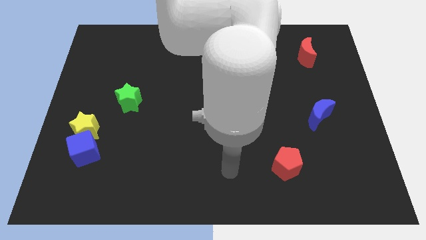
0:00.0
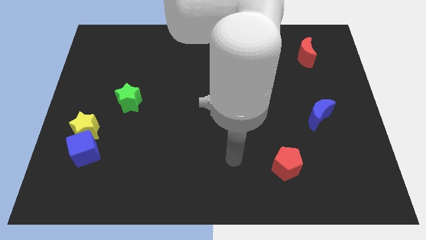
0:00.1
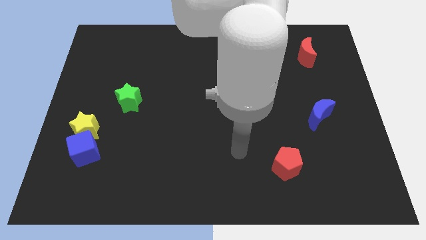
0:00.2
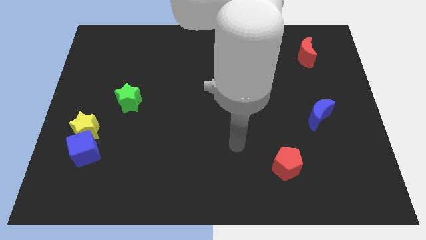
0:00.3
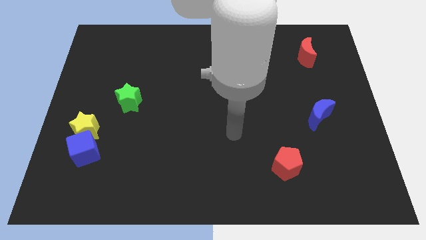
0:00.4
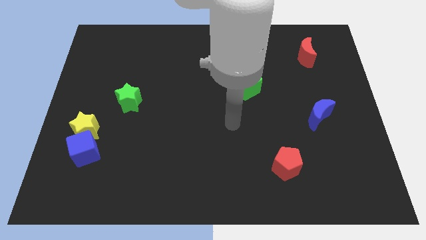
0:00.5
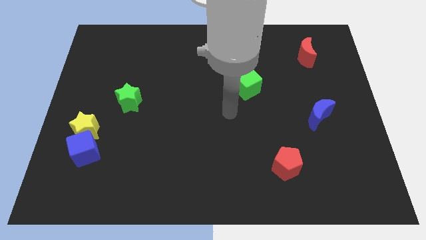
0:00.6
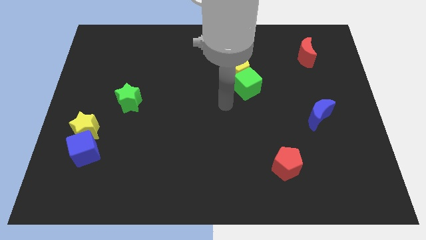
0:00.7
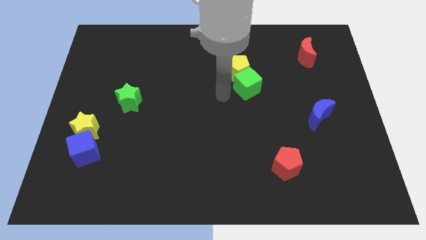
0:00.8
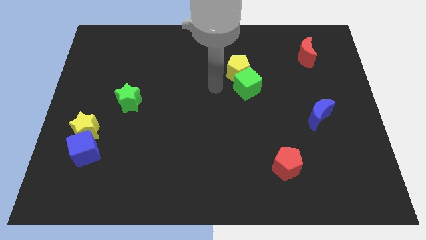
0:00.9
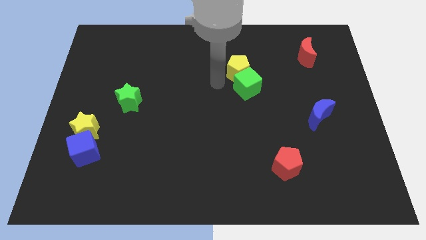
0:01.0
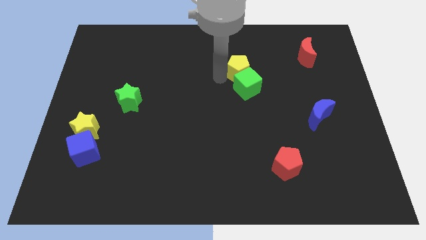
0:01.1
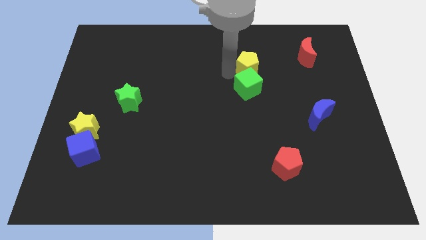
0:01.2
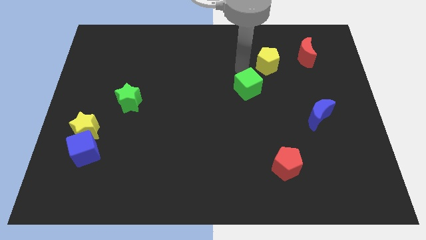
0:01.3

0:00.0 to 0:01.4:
separate the green cube from the yellow pentagon

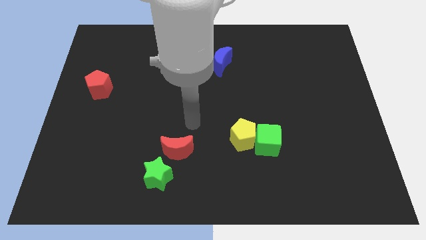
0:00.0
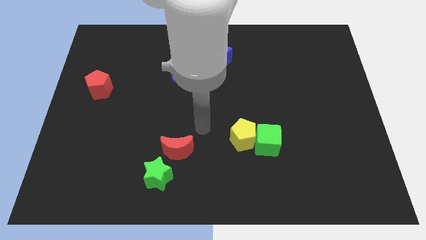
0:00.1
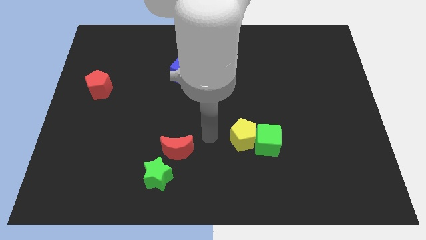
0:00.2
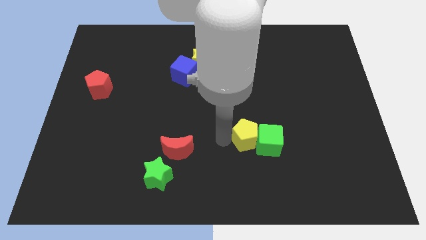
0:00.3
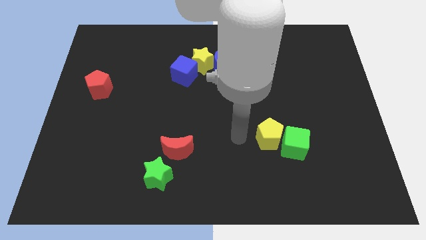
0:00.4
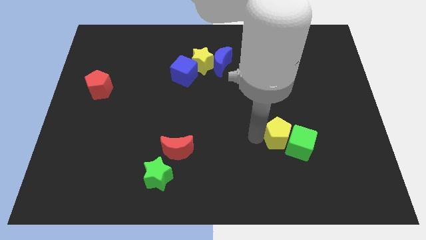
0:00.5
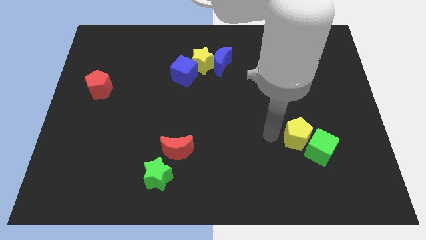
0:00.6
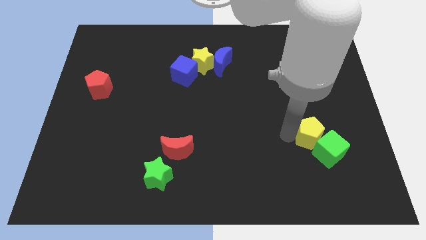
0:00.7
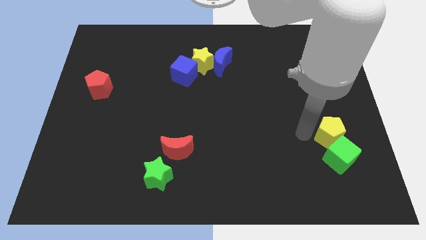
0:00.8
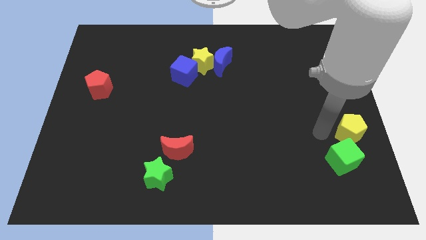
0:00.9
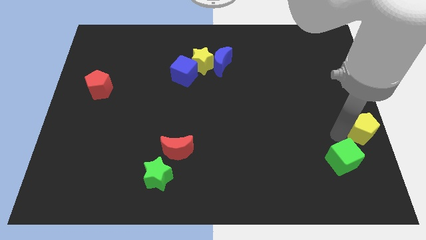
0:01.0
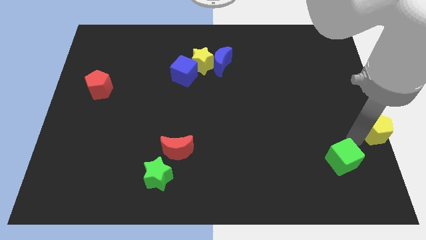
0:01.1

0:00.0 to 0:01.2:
pull the green cube apart from the yellow pentagon

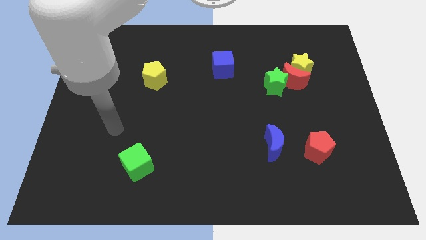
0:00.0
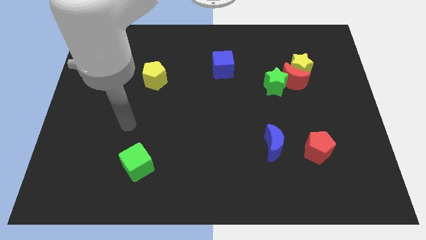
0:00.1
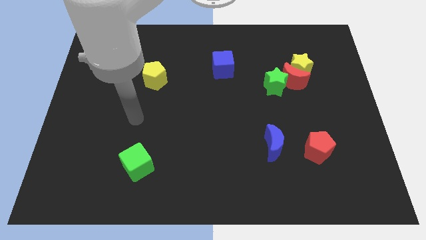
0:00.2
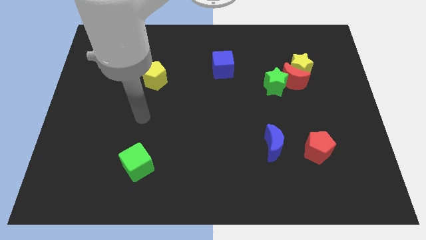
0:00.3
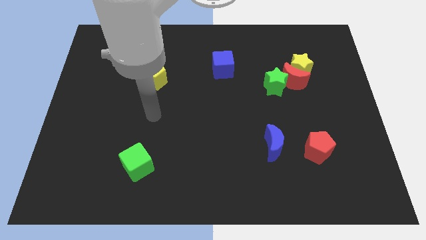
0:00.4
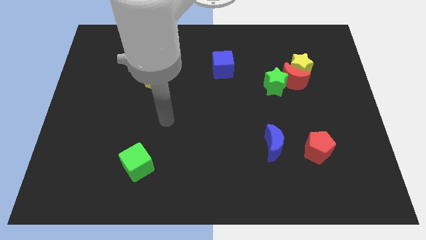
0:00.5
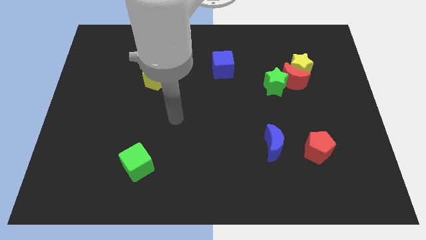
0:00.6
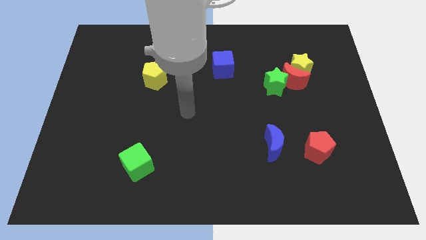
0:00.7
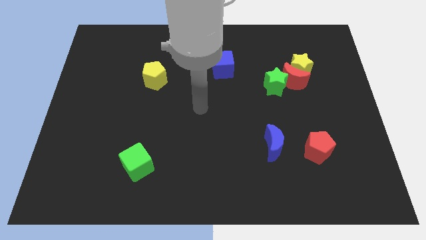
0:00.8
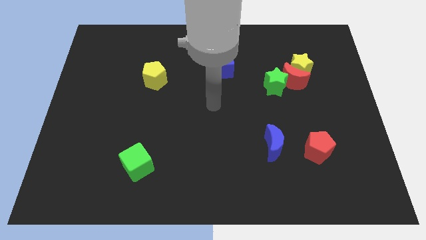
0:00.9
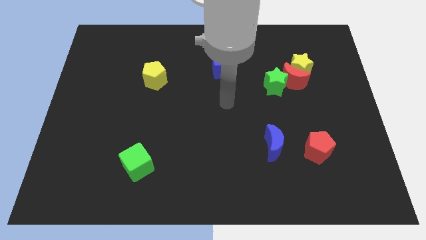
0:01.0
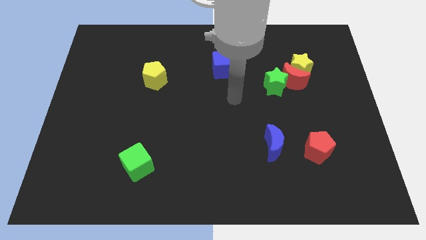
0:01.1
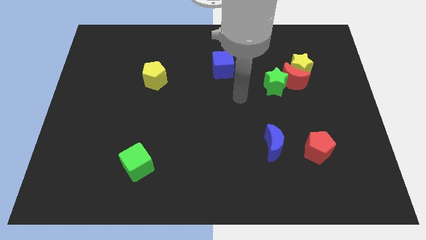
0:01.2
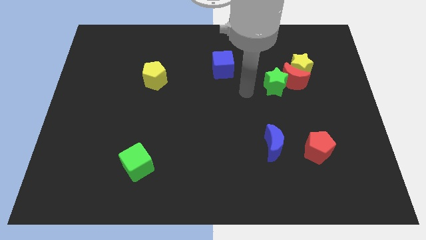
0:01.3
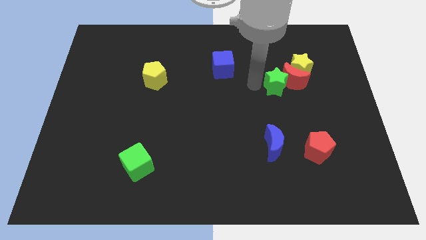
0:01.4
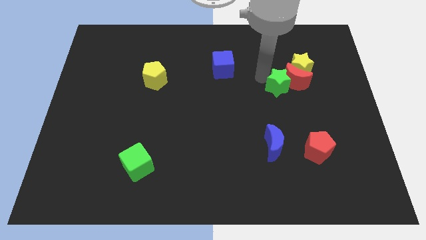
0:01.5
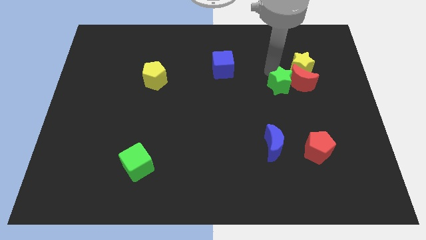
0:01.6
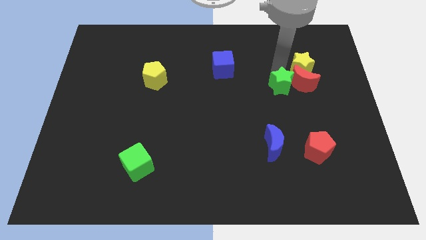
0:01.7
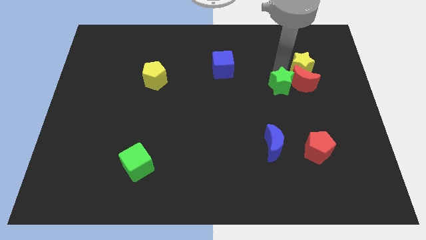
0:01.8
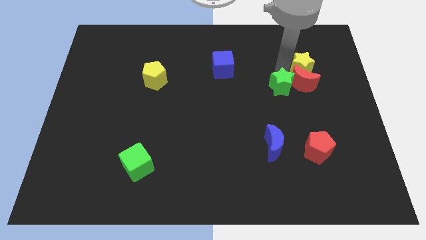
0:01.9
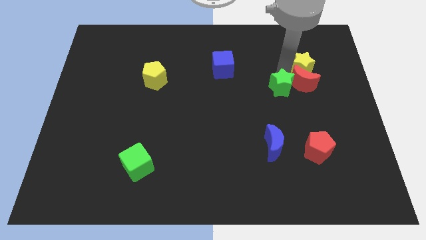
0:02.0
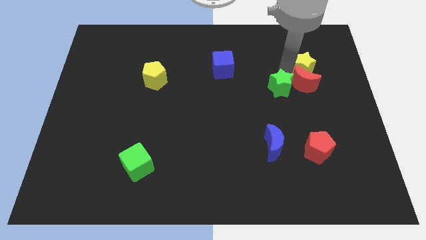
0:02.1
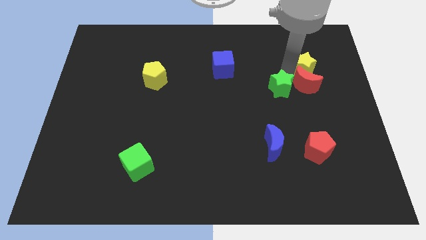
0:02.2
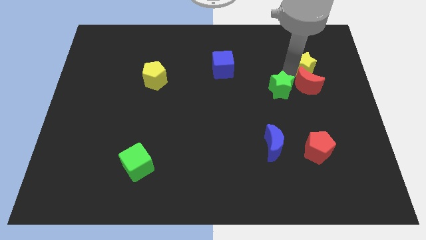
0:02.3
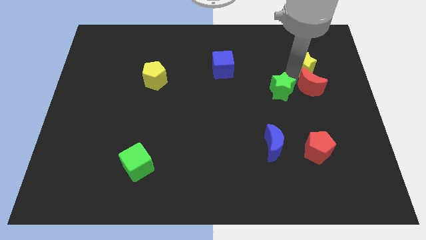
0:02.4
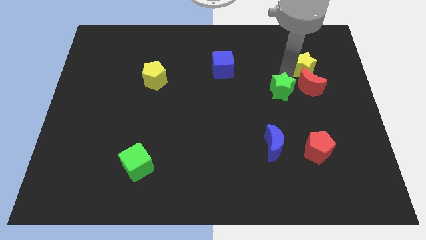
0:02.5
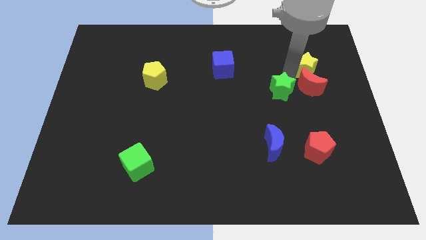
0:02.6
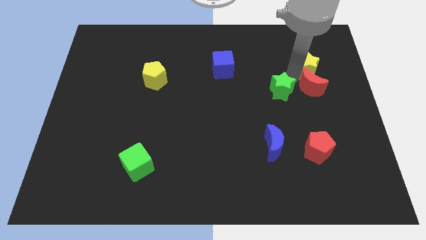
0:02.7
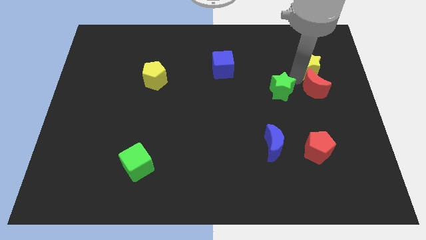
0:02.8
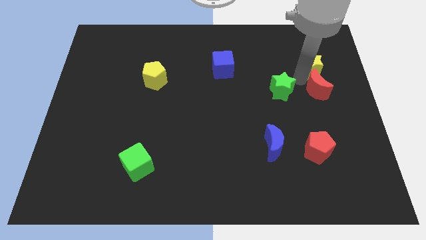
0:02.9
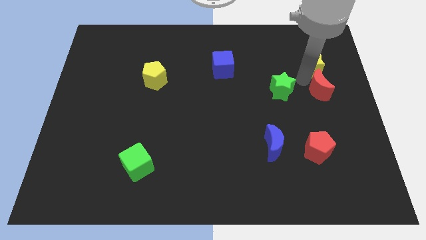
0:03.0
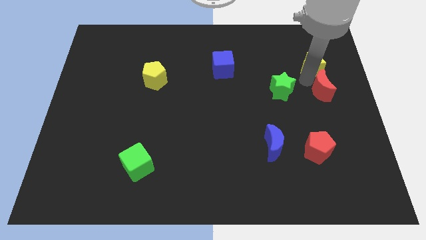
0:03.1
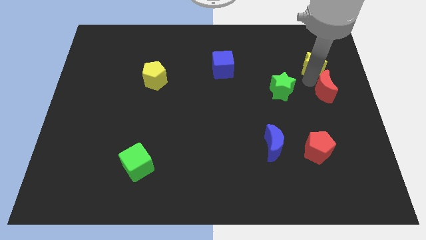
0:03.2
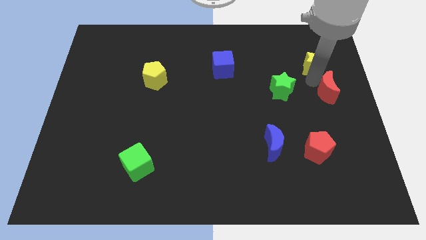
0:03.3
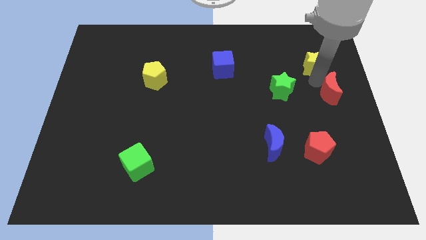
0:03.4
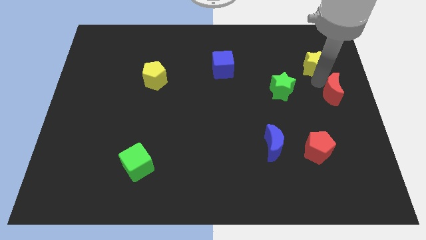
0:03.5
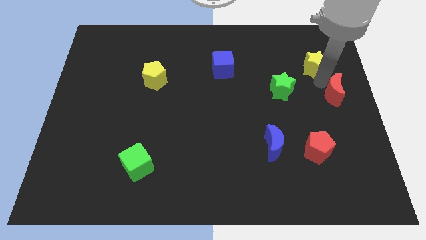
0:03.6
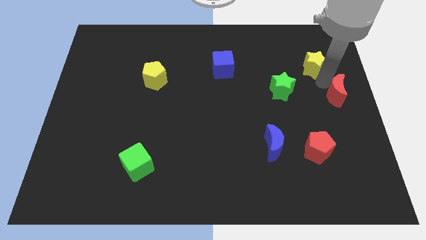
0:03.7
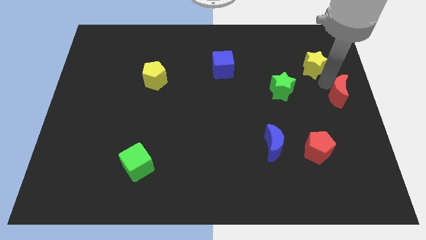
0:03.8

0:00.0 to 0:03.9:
pull the red moon apart from the yellow star and green star

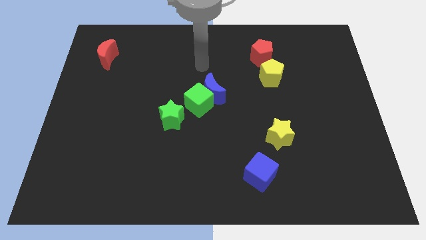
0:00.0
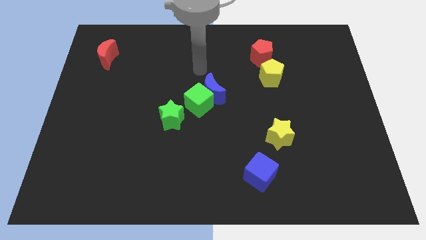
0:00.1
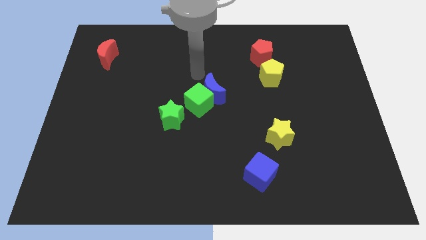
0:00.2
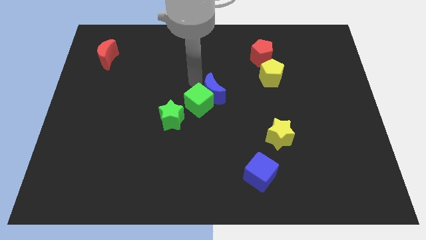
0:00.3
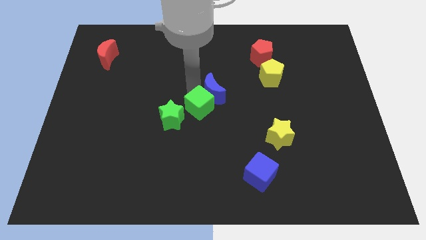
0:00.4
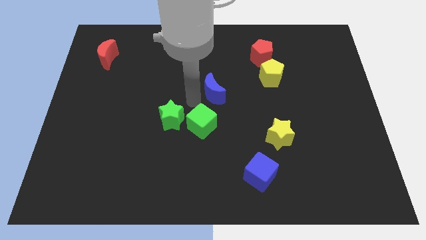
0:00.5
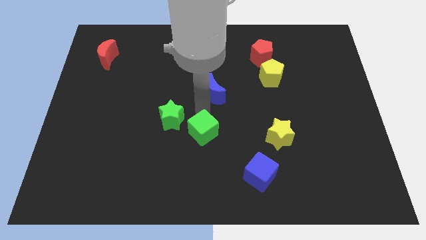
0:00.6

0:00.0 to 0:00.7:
separate the blue moon from the green cube

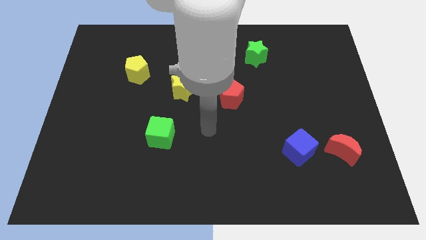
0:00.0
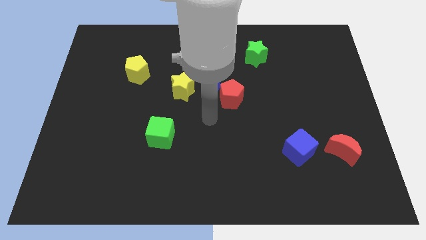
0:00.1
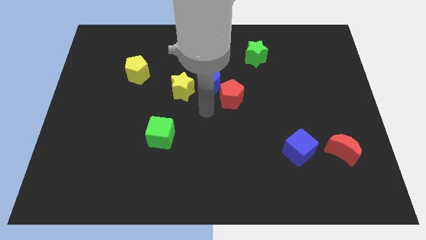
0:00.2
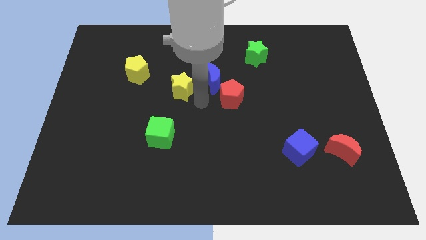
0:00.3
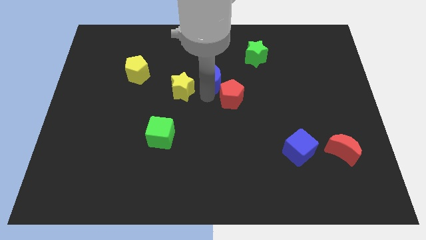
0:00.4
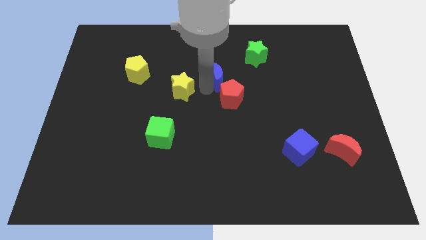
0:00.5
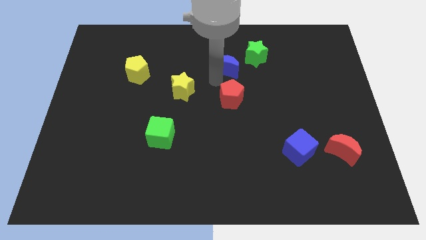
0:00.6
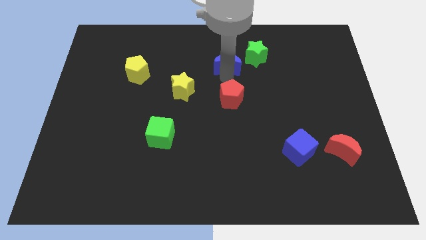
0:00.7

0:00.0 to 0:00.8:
separate the red pentagon from the blue moon

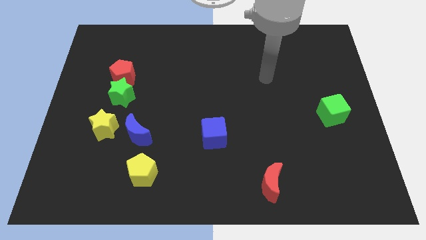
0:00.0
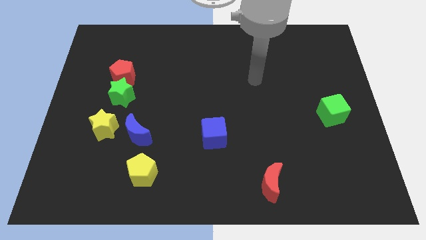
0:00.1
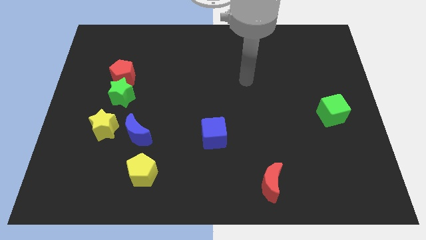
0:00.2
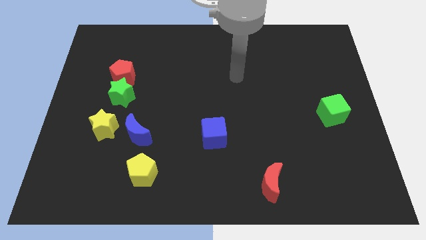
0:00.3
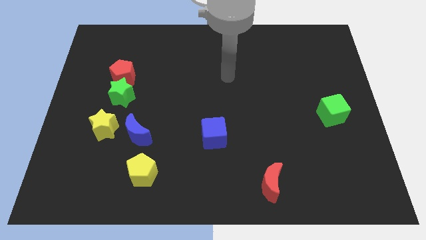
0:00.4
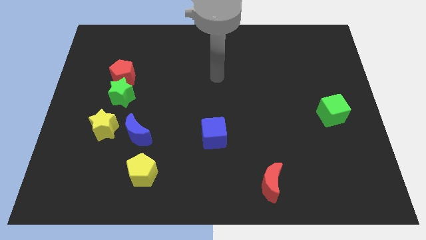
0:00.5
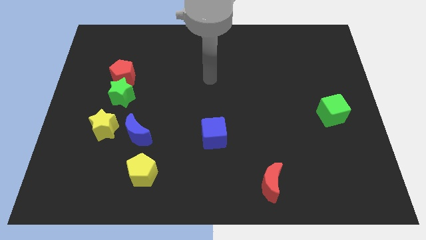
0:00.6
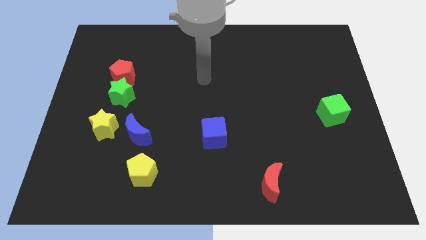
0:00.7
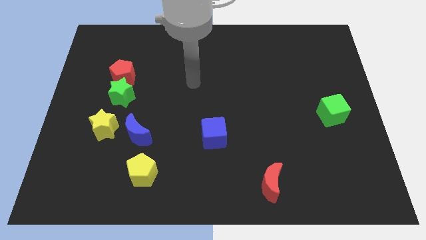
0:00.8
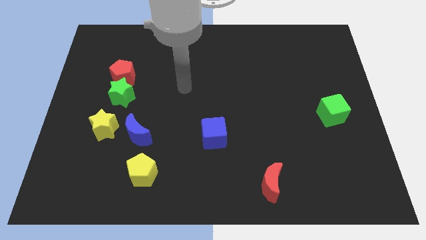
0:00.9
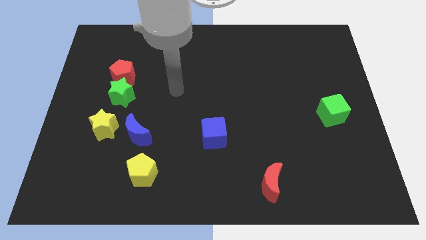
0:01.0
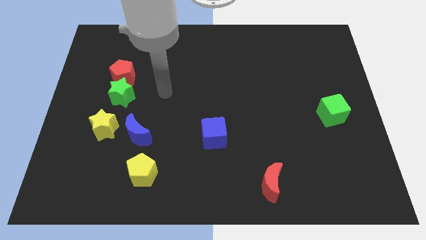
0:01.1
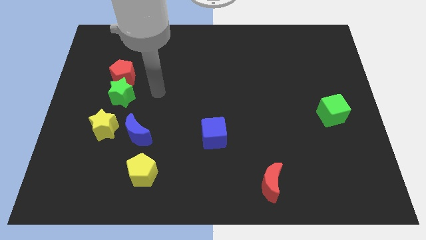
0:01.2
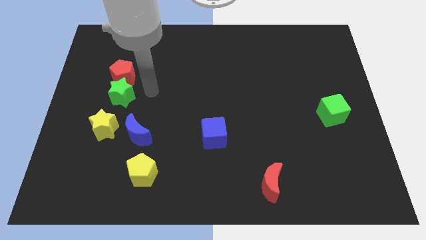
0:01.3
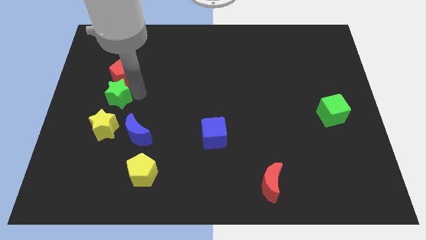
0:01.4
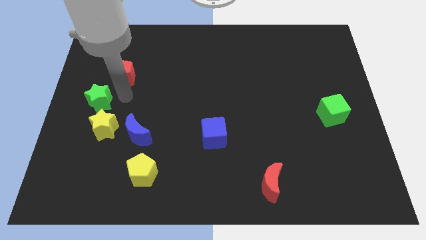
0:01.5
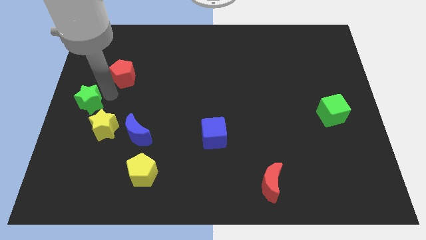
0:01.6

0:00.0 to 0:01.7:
separate the red pentagon from the green star
